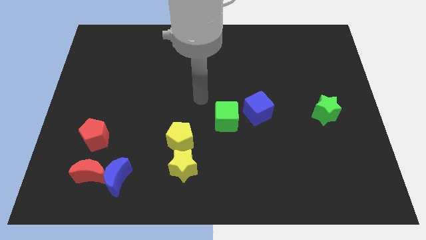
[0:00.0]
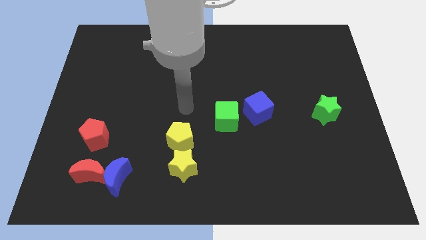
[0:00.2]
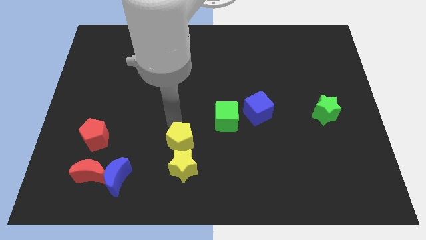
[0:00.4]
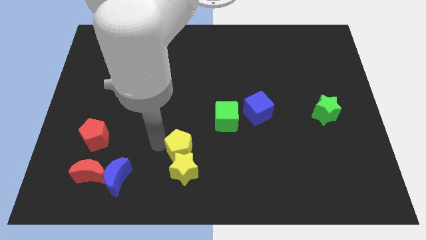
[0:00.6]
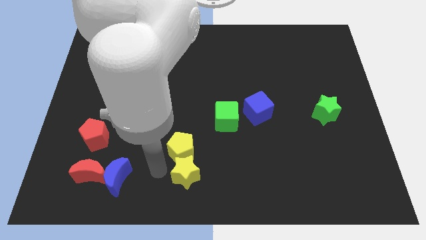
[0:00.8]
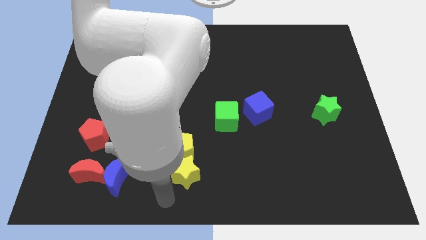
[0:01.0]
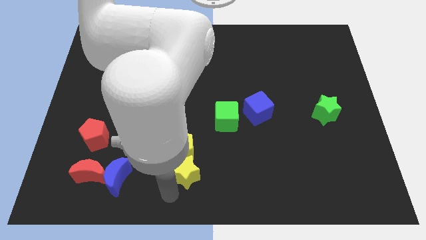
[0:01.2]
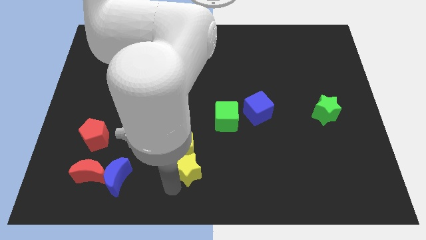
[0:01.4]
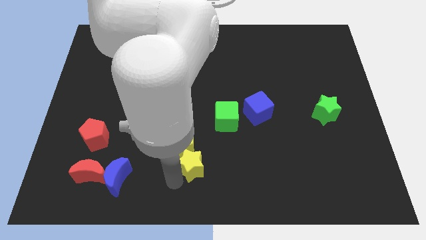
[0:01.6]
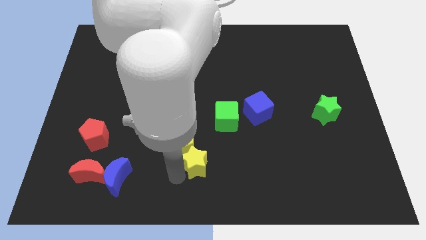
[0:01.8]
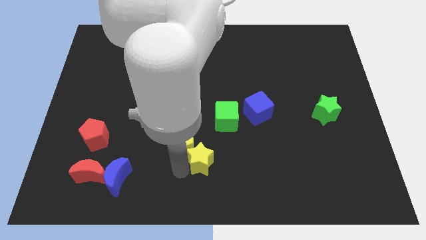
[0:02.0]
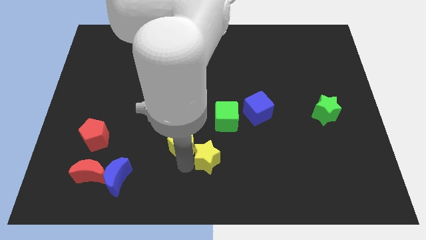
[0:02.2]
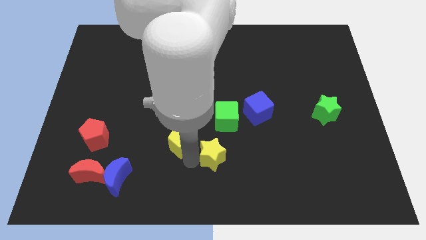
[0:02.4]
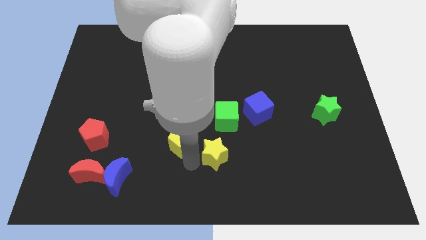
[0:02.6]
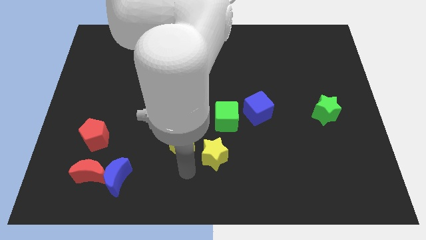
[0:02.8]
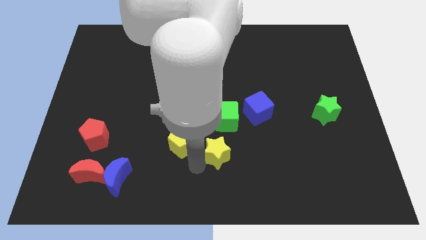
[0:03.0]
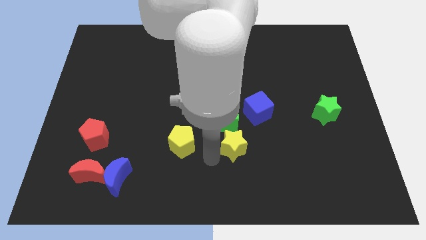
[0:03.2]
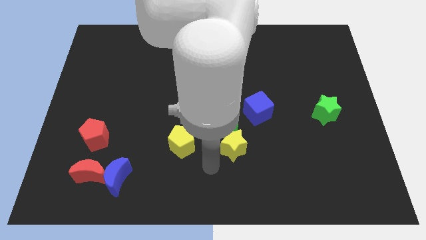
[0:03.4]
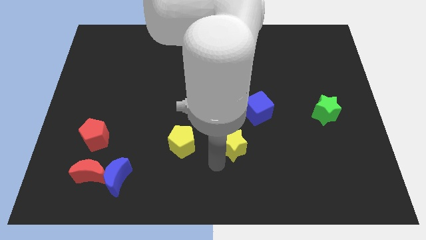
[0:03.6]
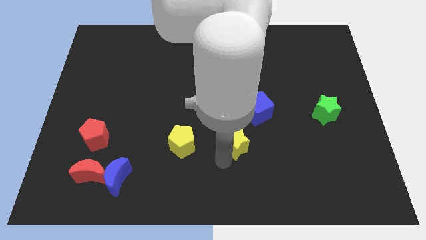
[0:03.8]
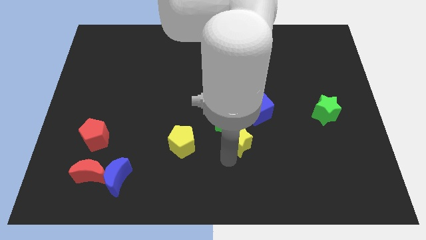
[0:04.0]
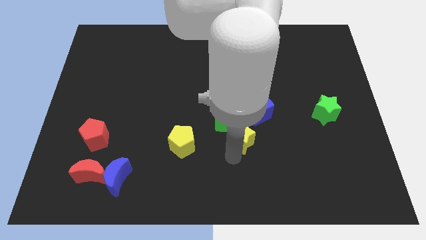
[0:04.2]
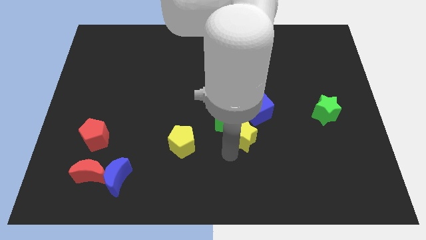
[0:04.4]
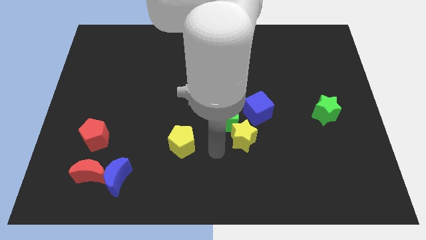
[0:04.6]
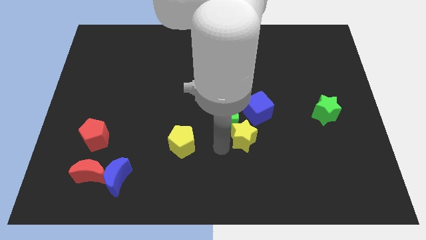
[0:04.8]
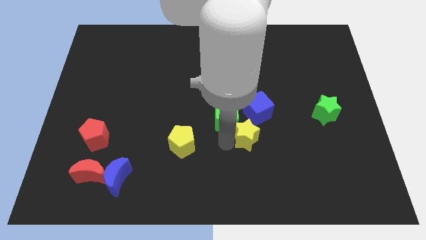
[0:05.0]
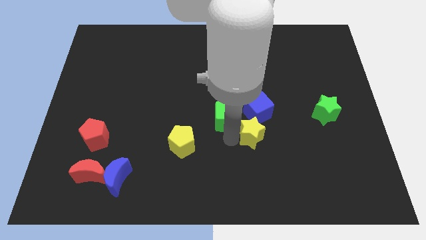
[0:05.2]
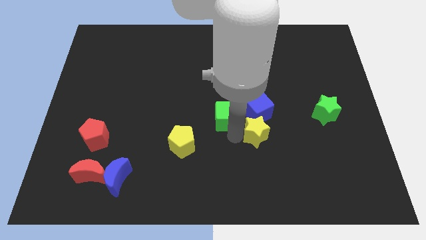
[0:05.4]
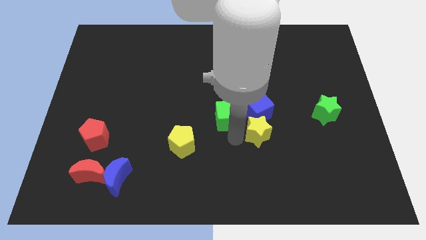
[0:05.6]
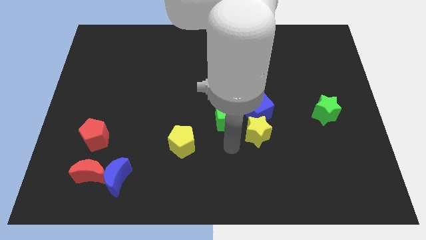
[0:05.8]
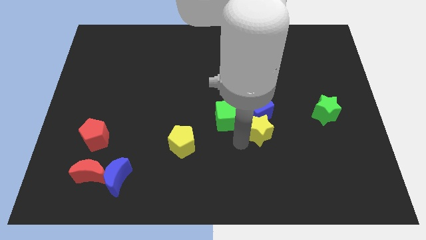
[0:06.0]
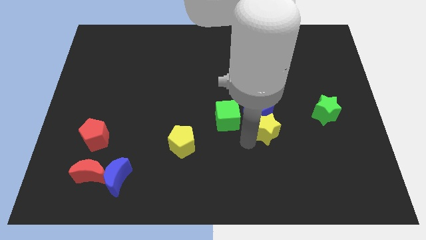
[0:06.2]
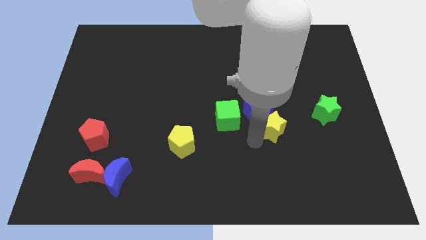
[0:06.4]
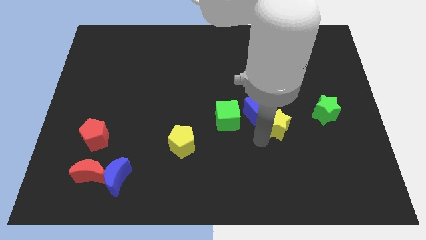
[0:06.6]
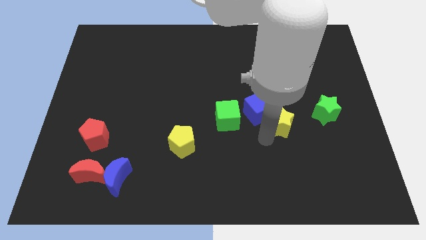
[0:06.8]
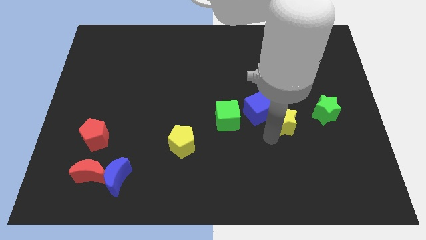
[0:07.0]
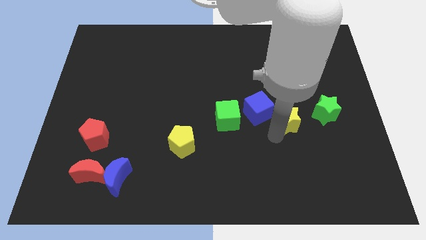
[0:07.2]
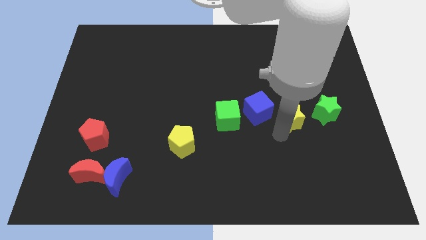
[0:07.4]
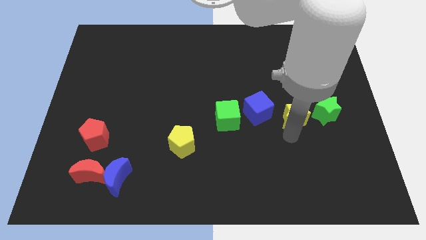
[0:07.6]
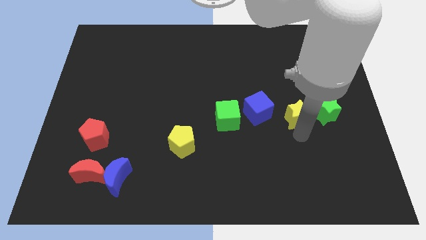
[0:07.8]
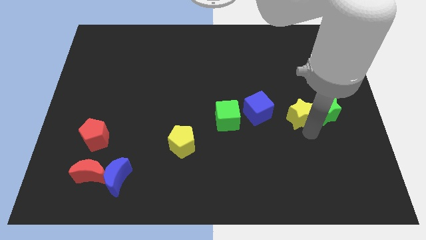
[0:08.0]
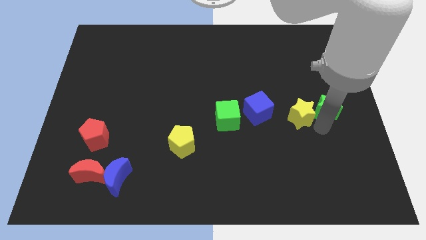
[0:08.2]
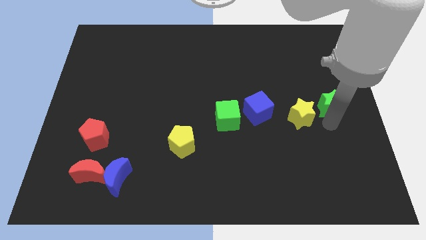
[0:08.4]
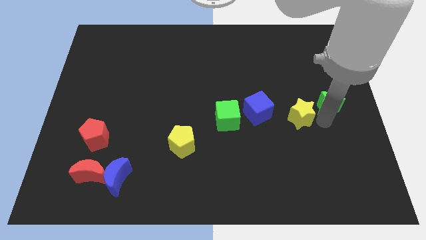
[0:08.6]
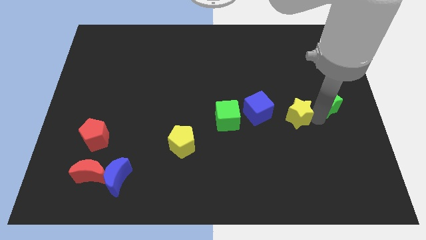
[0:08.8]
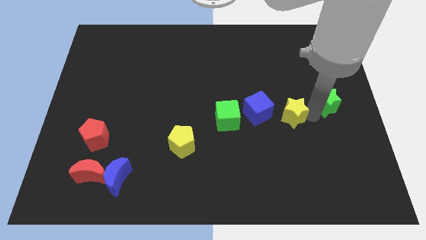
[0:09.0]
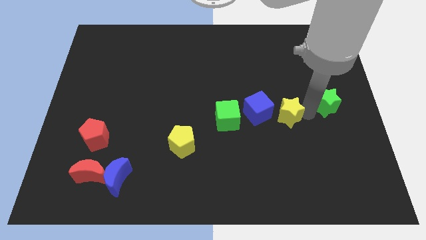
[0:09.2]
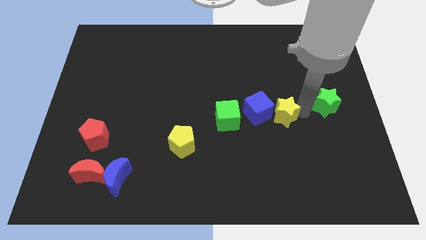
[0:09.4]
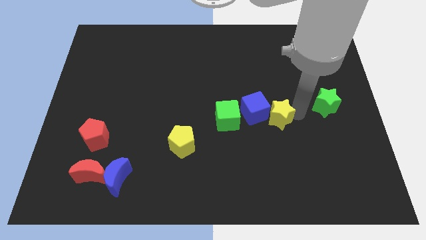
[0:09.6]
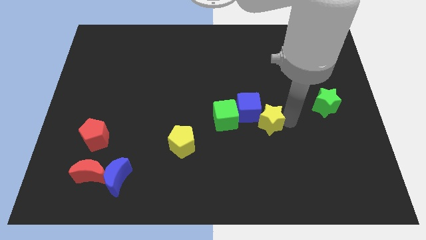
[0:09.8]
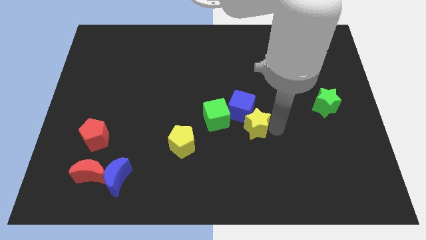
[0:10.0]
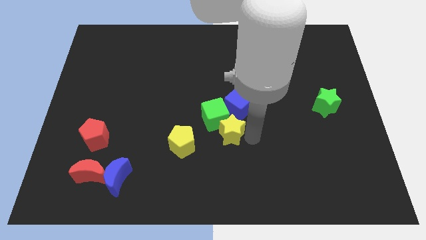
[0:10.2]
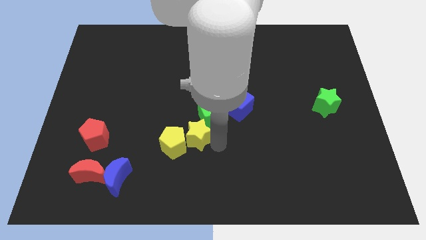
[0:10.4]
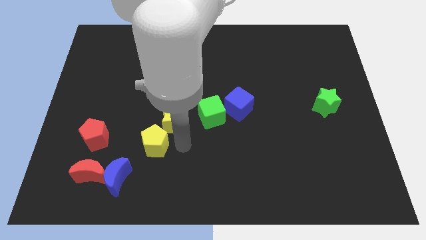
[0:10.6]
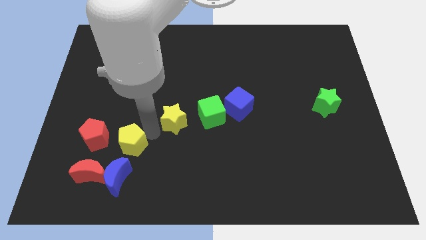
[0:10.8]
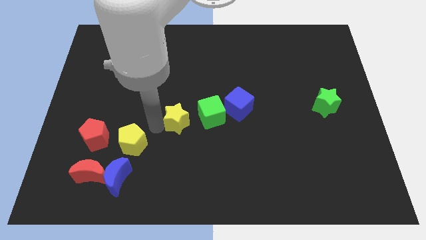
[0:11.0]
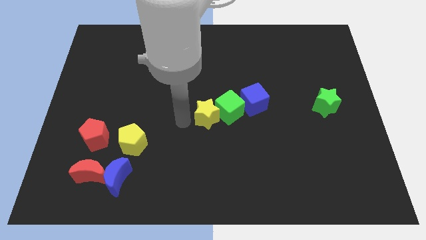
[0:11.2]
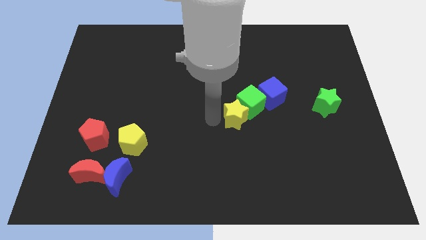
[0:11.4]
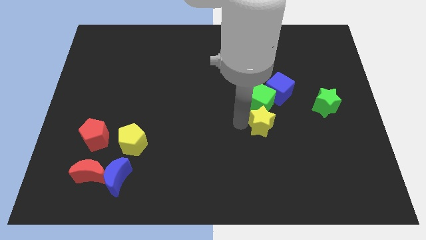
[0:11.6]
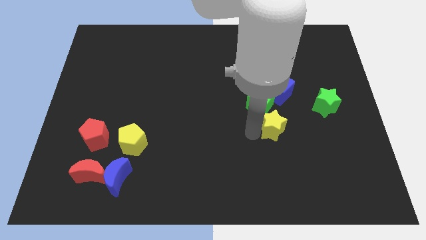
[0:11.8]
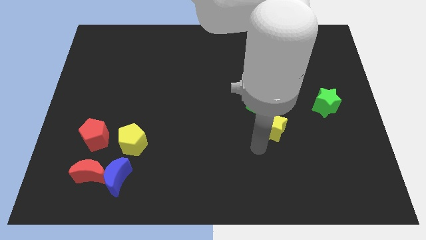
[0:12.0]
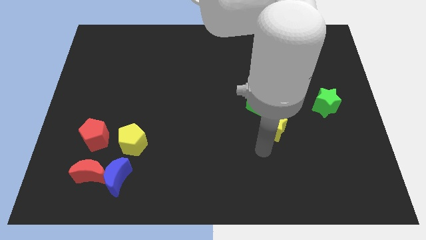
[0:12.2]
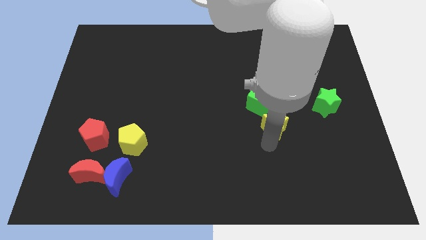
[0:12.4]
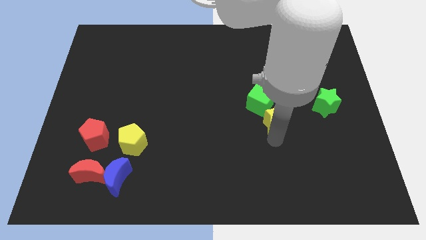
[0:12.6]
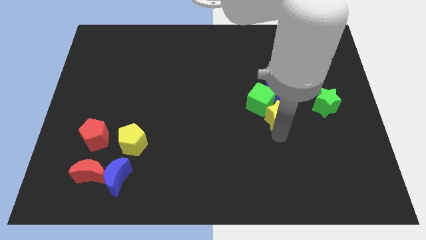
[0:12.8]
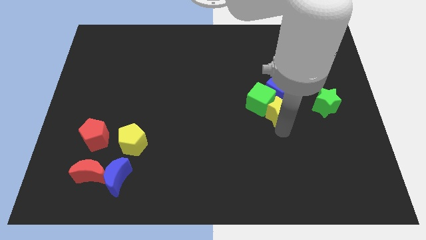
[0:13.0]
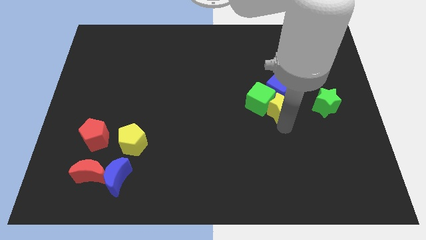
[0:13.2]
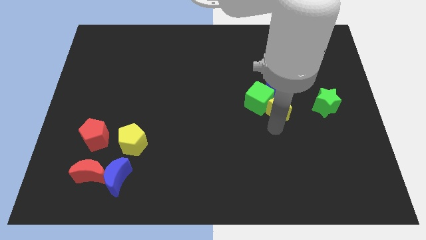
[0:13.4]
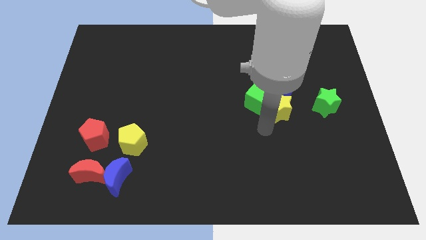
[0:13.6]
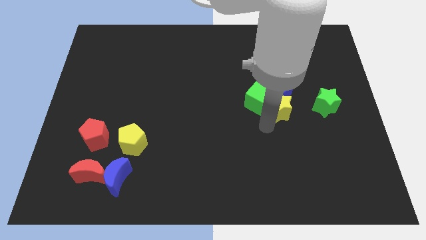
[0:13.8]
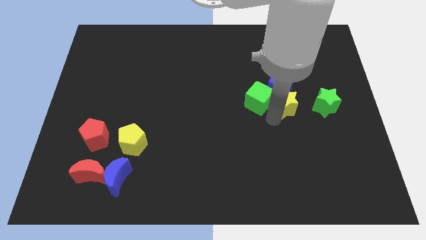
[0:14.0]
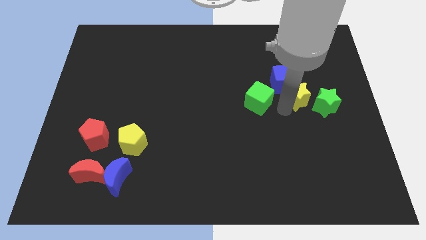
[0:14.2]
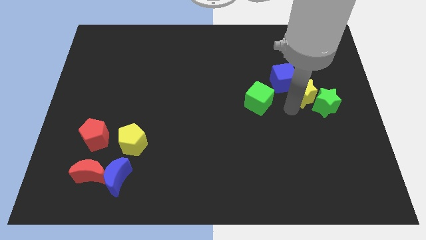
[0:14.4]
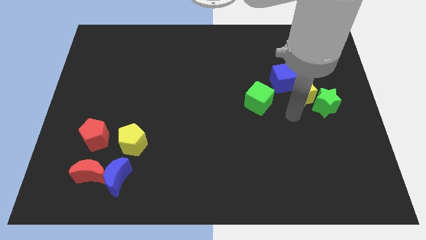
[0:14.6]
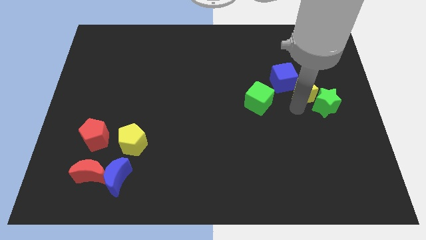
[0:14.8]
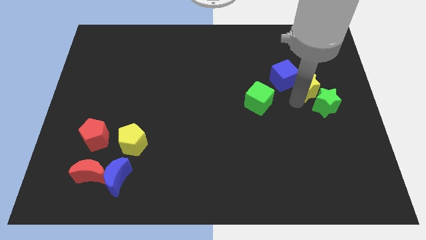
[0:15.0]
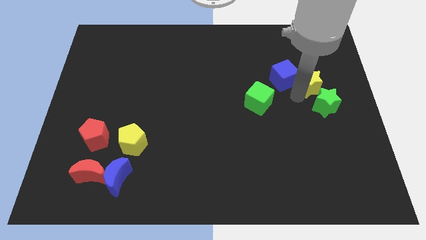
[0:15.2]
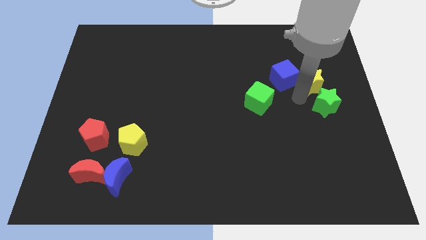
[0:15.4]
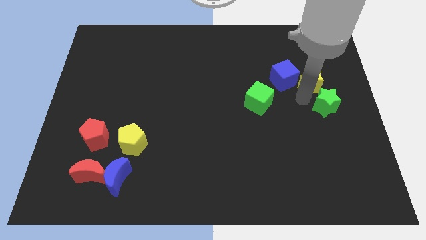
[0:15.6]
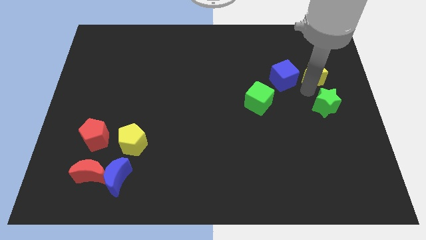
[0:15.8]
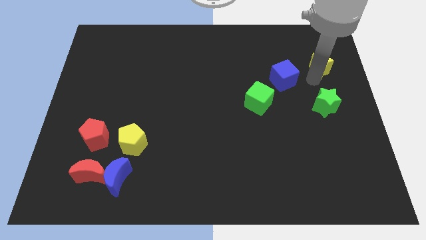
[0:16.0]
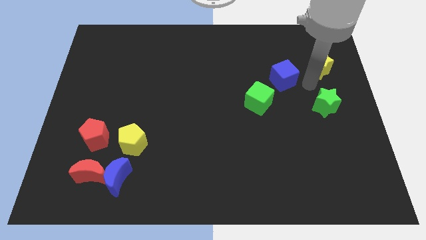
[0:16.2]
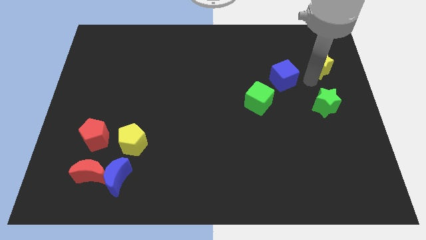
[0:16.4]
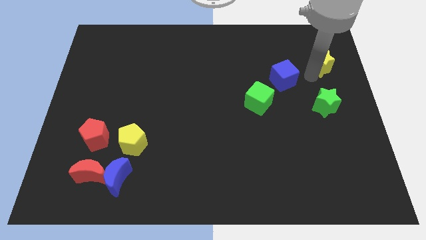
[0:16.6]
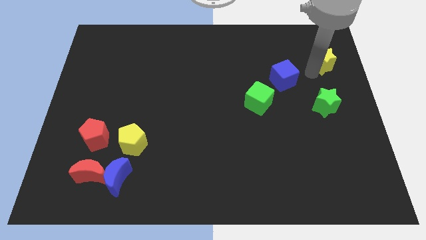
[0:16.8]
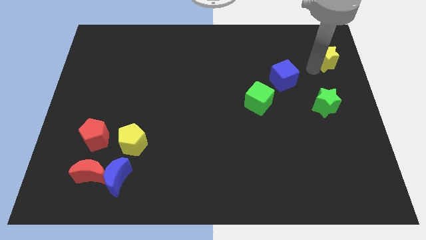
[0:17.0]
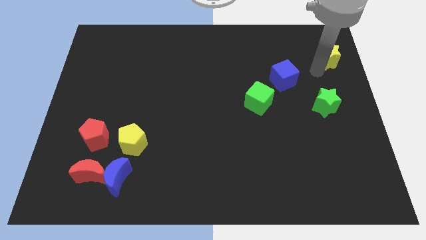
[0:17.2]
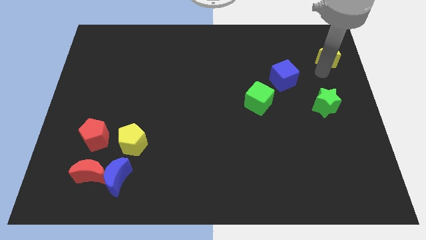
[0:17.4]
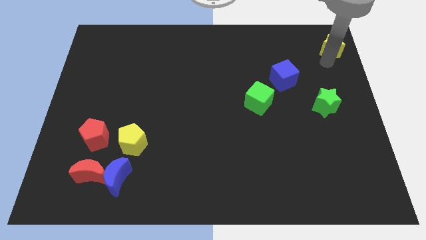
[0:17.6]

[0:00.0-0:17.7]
slide the yellow star to the top right corner
